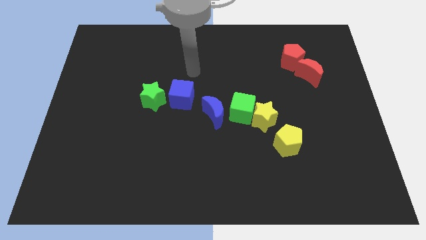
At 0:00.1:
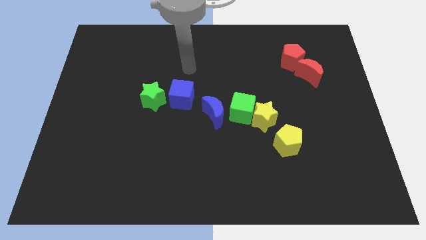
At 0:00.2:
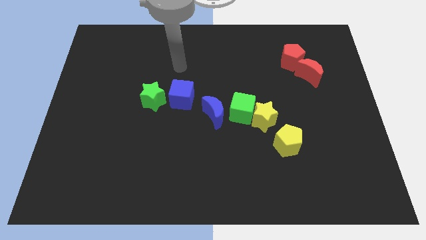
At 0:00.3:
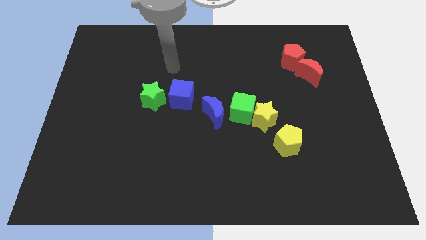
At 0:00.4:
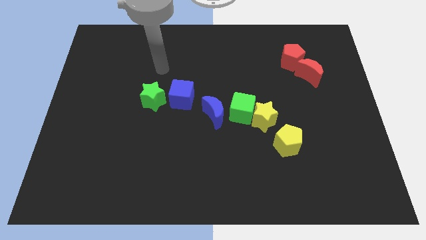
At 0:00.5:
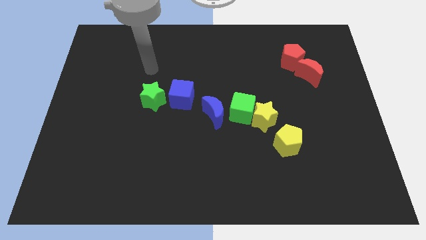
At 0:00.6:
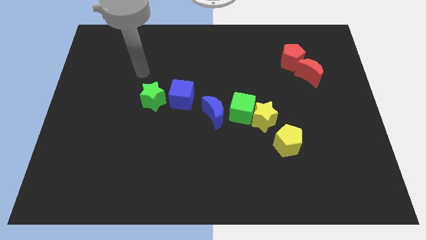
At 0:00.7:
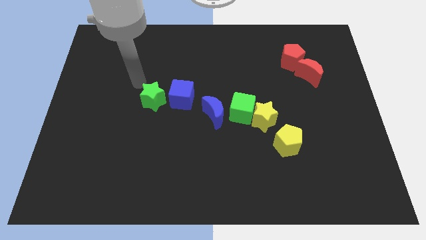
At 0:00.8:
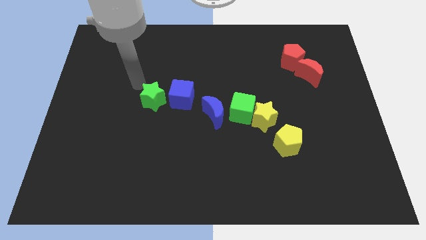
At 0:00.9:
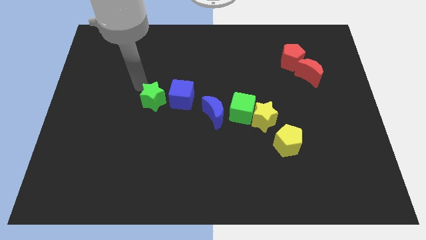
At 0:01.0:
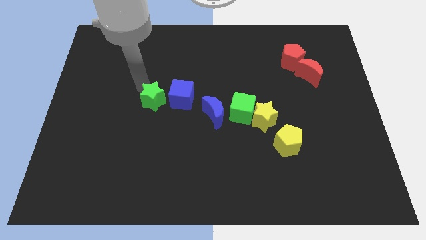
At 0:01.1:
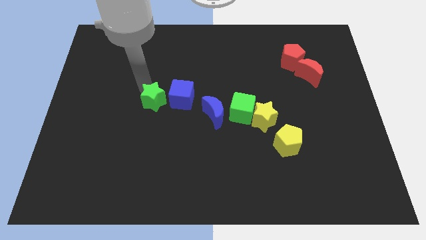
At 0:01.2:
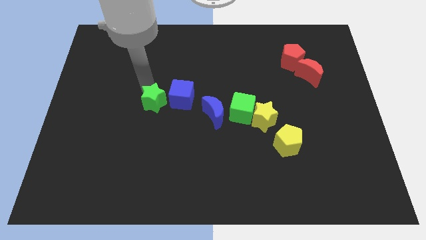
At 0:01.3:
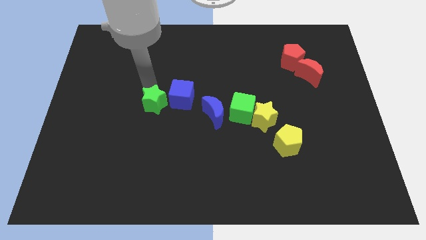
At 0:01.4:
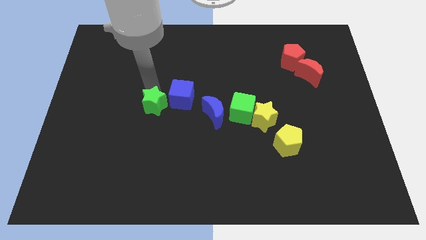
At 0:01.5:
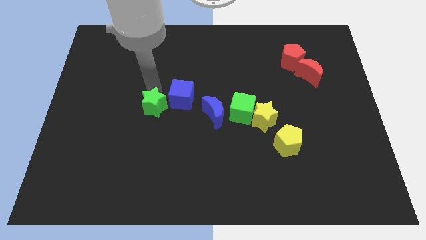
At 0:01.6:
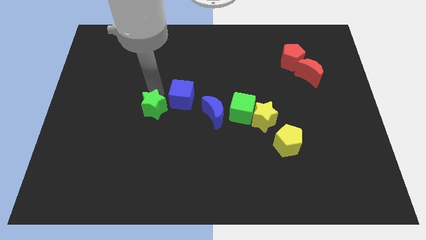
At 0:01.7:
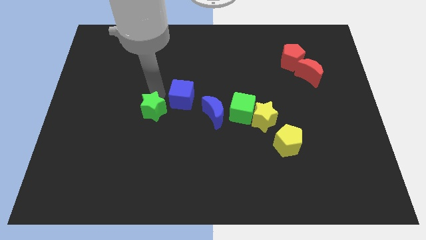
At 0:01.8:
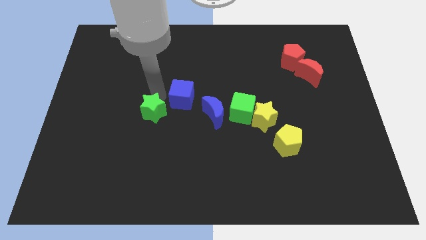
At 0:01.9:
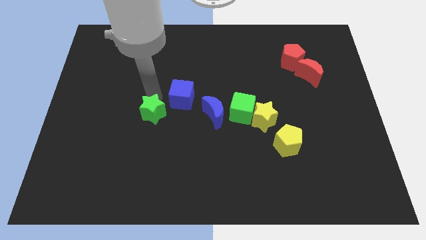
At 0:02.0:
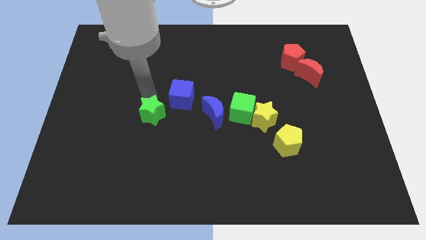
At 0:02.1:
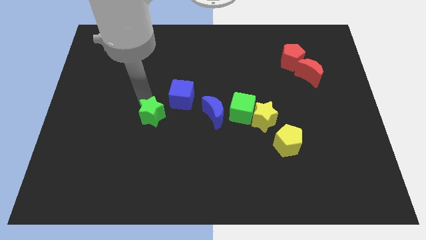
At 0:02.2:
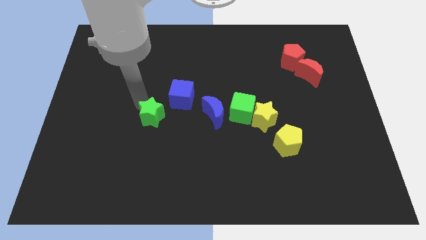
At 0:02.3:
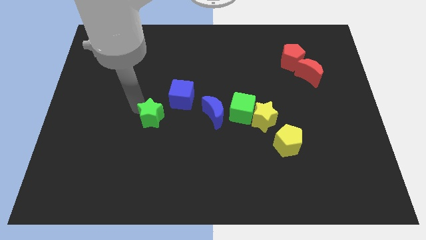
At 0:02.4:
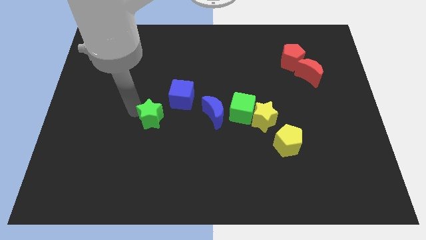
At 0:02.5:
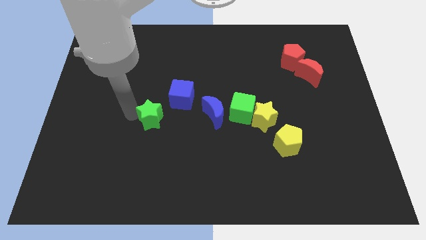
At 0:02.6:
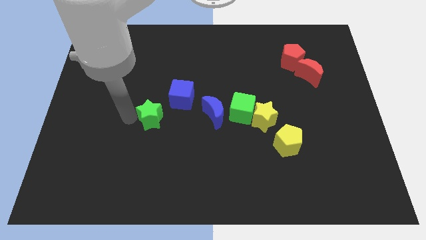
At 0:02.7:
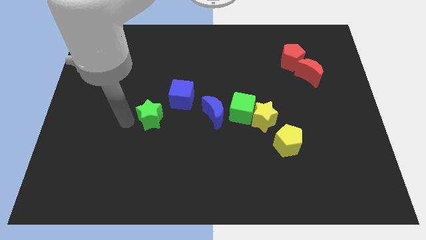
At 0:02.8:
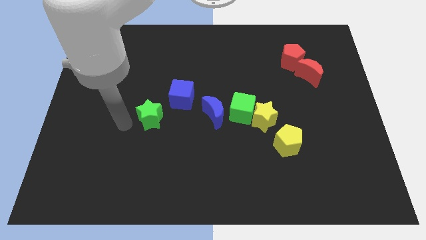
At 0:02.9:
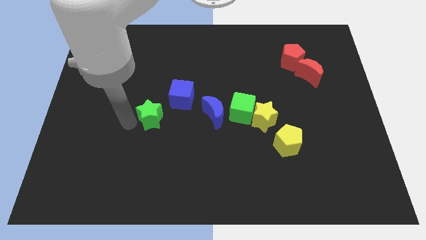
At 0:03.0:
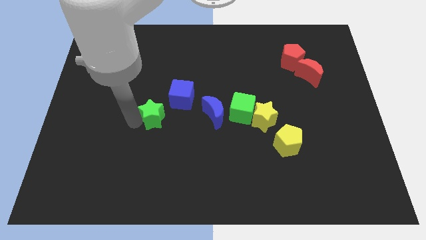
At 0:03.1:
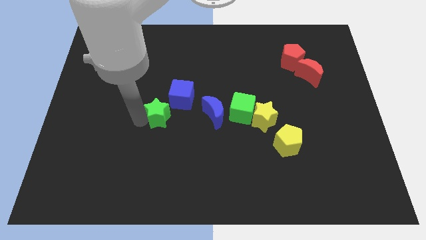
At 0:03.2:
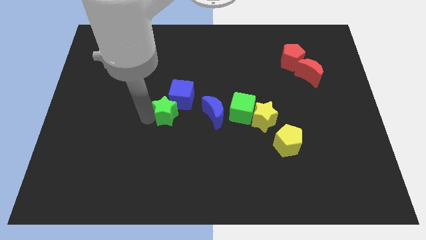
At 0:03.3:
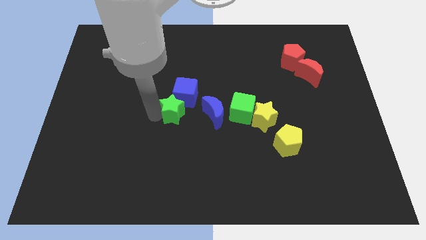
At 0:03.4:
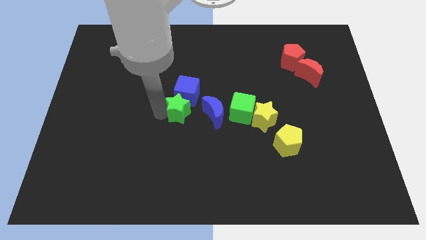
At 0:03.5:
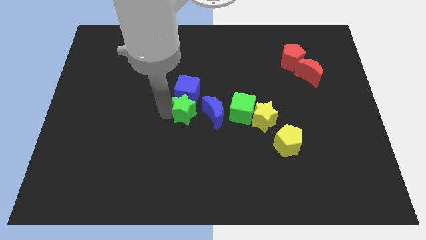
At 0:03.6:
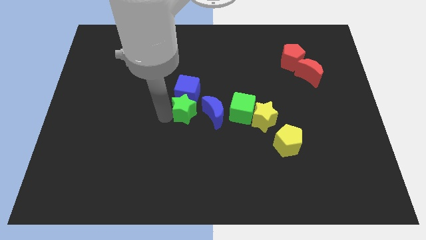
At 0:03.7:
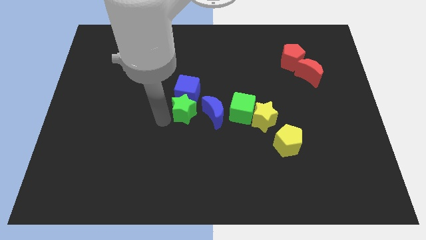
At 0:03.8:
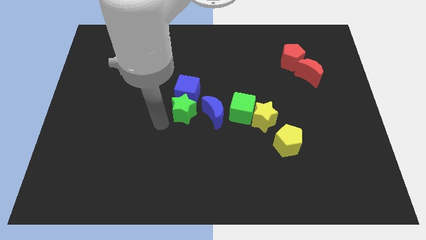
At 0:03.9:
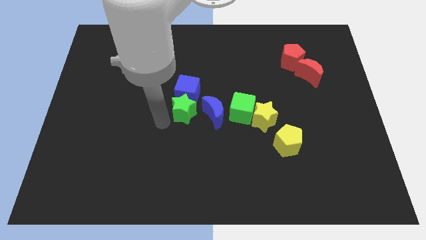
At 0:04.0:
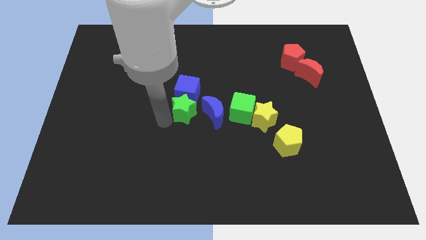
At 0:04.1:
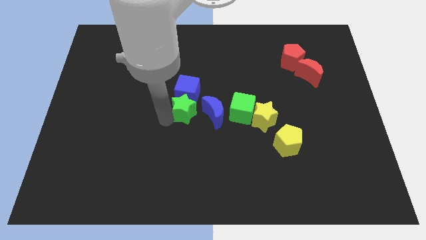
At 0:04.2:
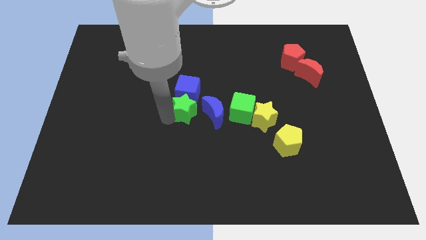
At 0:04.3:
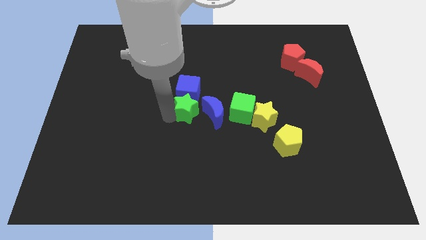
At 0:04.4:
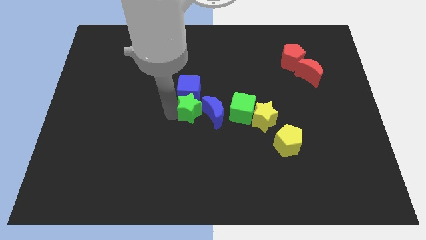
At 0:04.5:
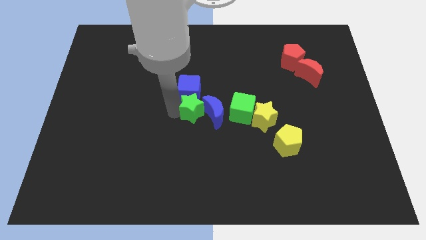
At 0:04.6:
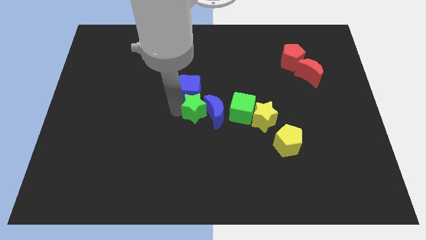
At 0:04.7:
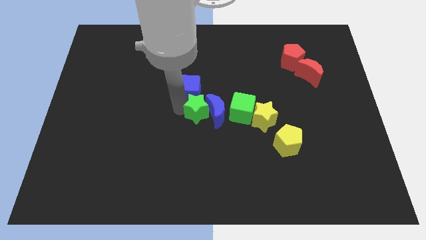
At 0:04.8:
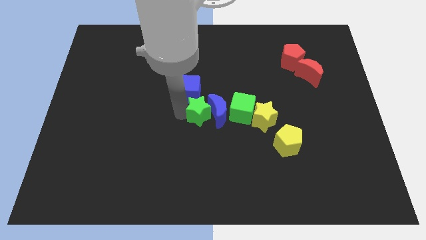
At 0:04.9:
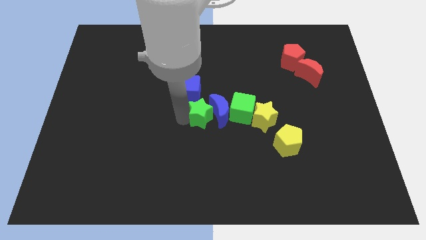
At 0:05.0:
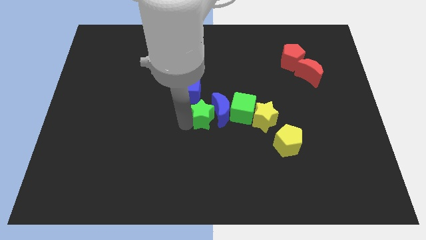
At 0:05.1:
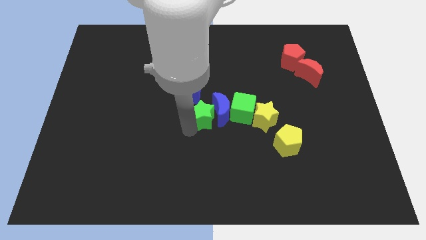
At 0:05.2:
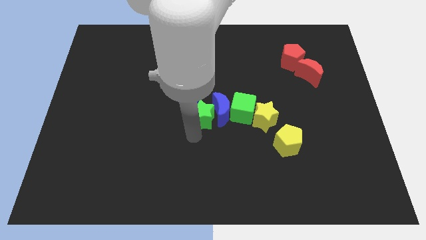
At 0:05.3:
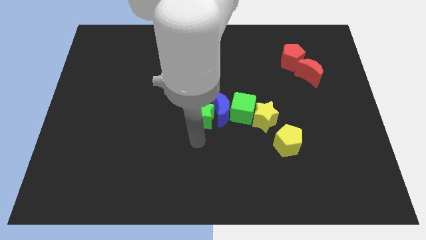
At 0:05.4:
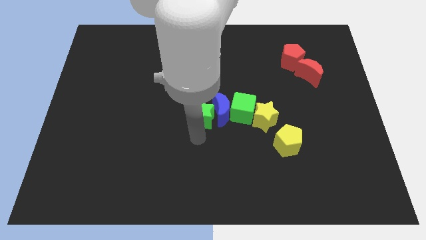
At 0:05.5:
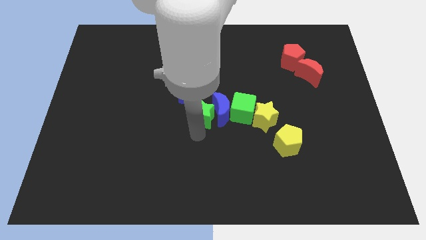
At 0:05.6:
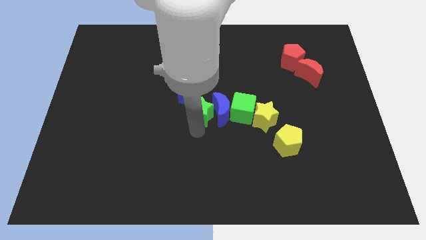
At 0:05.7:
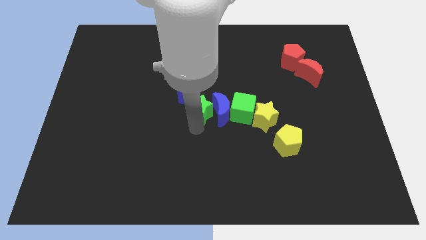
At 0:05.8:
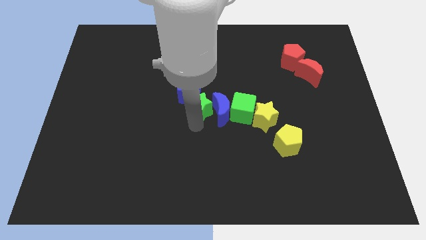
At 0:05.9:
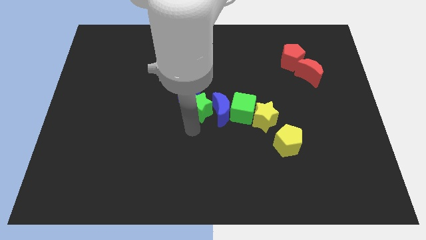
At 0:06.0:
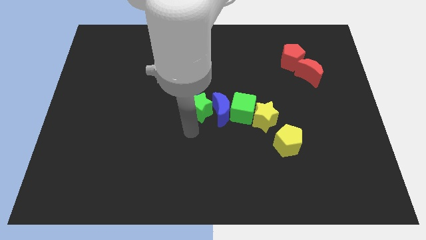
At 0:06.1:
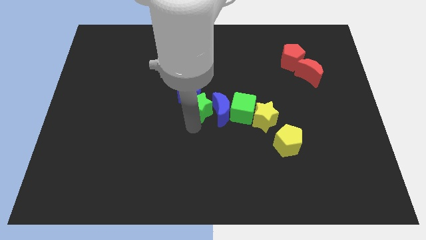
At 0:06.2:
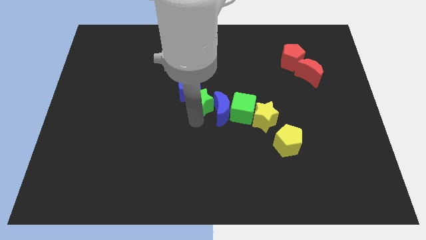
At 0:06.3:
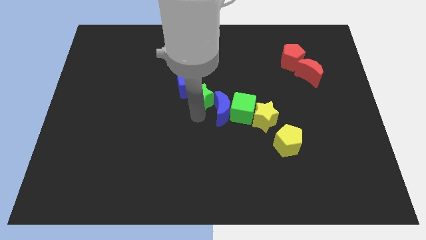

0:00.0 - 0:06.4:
push the green star right of the blue cube

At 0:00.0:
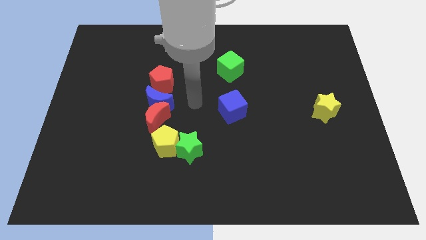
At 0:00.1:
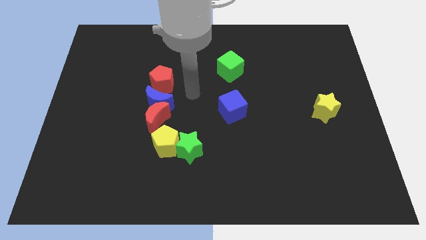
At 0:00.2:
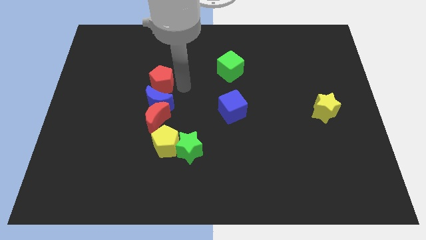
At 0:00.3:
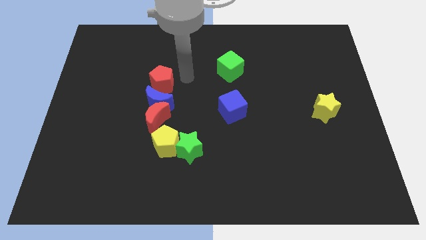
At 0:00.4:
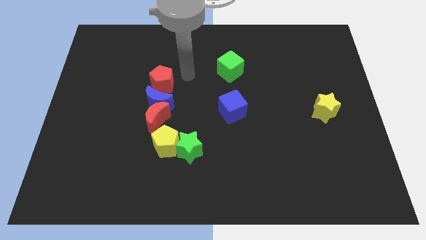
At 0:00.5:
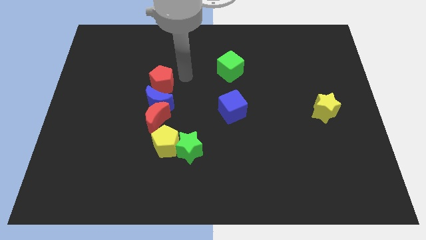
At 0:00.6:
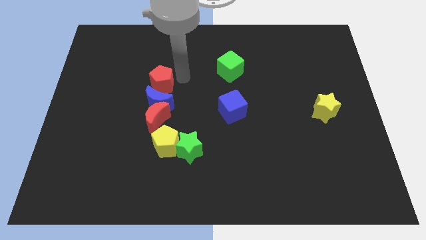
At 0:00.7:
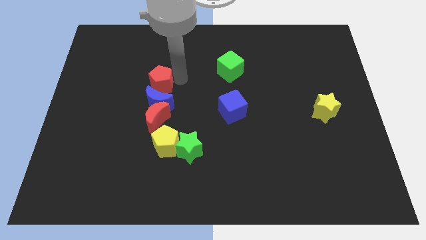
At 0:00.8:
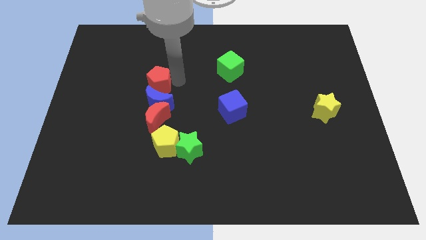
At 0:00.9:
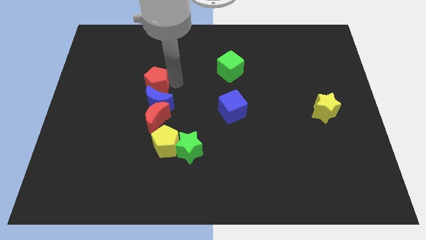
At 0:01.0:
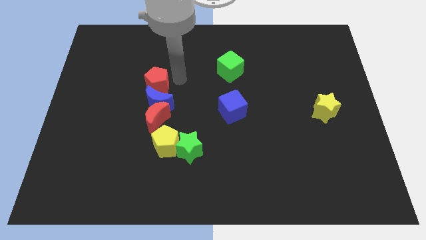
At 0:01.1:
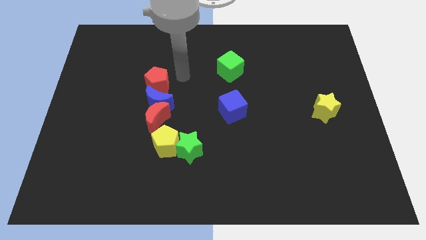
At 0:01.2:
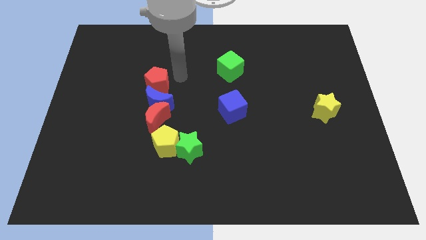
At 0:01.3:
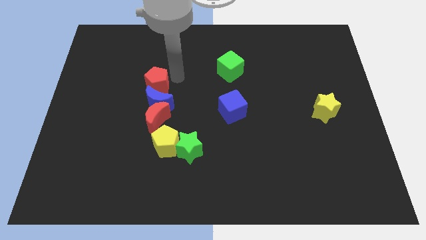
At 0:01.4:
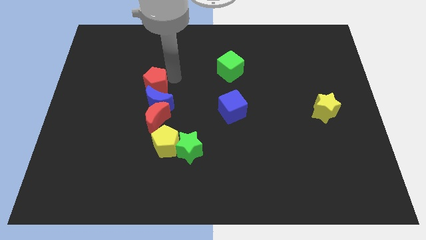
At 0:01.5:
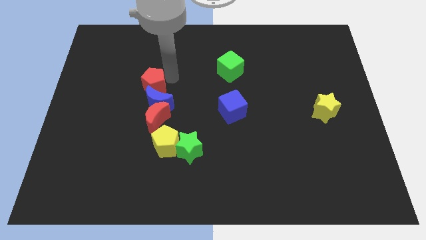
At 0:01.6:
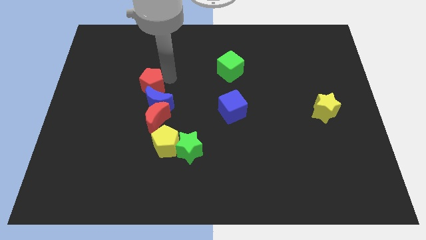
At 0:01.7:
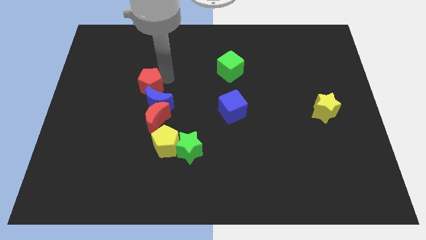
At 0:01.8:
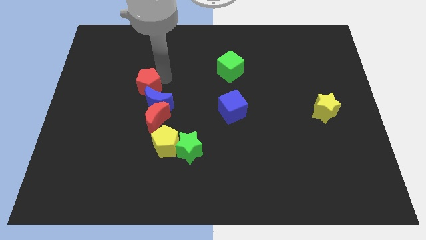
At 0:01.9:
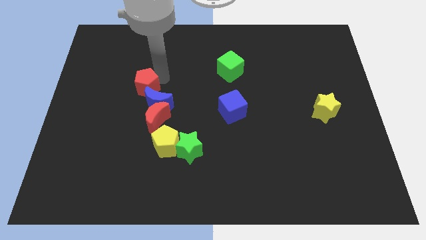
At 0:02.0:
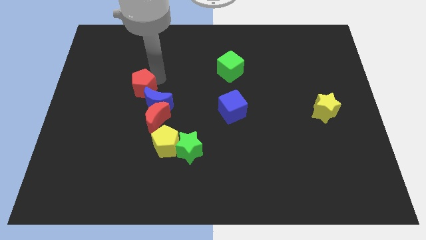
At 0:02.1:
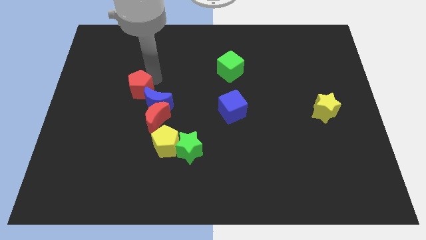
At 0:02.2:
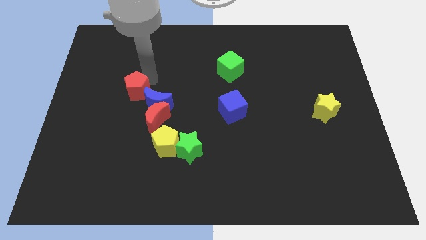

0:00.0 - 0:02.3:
slide the red pentagon left of the blue moon
